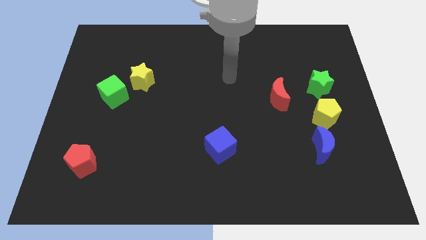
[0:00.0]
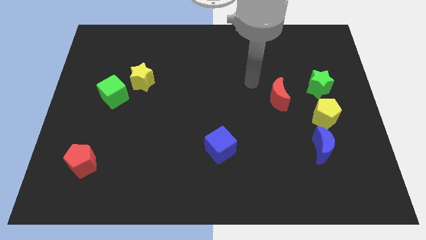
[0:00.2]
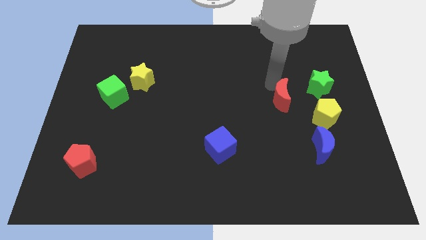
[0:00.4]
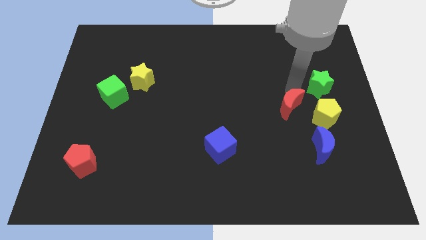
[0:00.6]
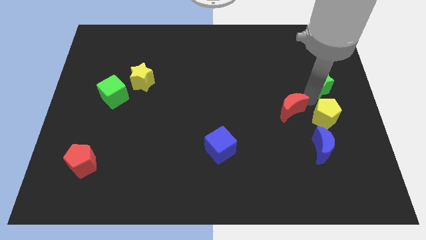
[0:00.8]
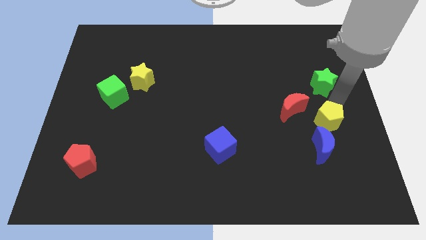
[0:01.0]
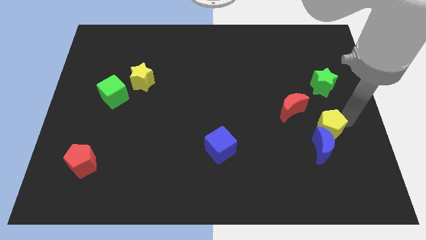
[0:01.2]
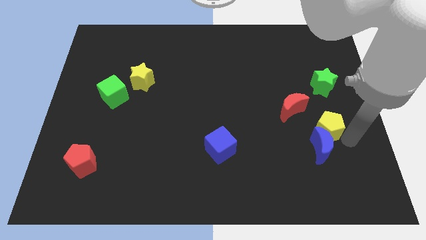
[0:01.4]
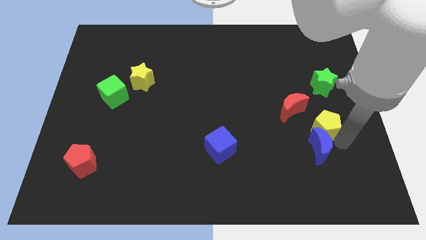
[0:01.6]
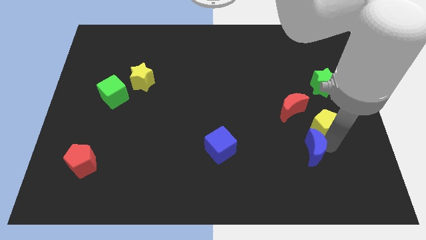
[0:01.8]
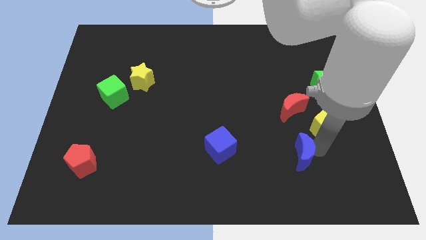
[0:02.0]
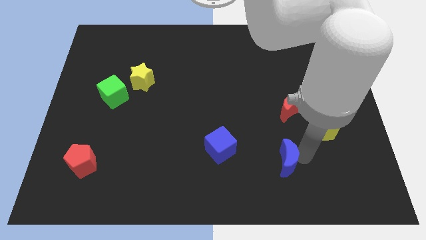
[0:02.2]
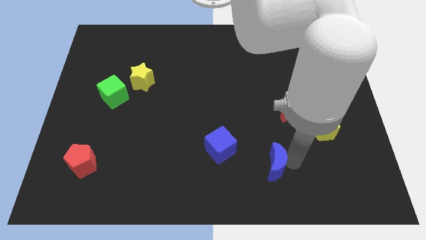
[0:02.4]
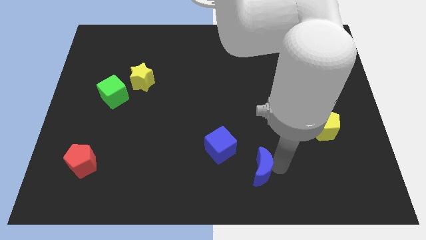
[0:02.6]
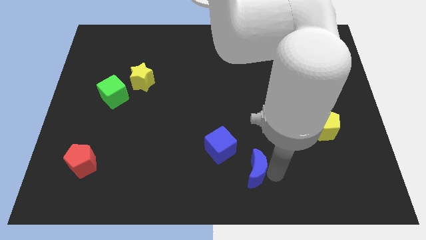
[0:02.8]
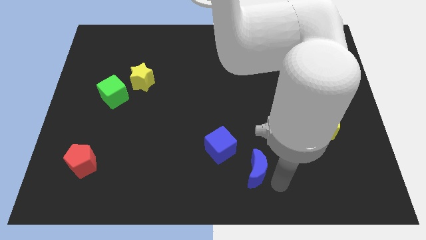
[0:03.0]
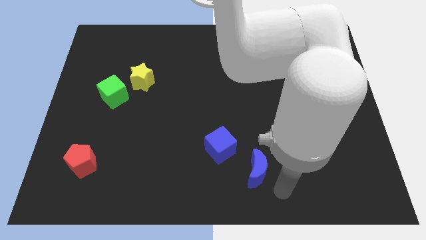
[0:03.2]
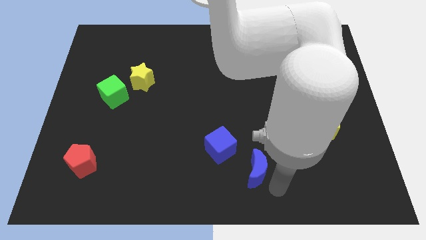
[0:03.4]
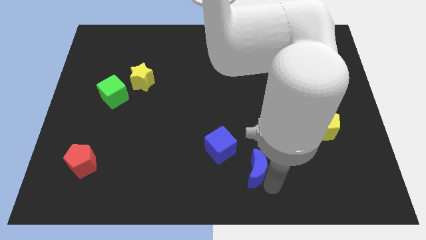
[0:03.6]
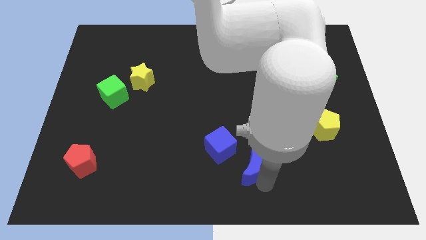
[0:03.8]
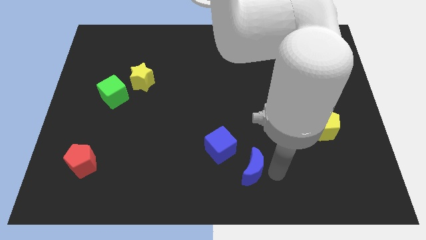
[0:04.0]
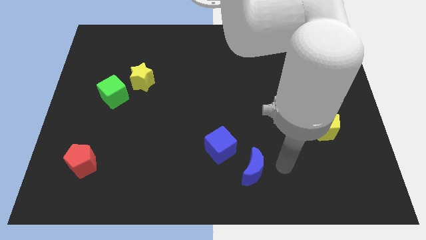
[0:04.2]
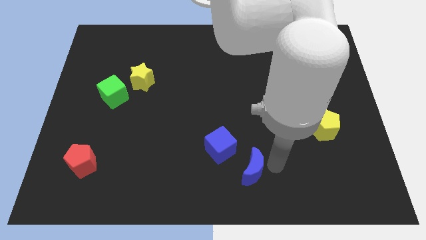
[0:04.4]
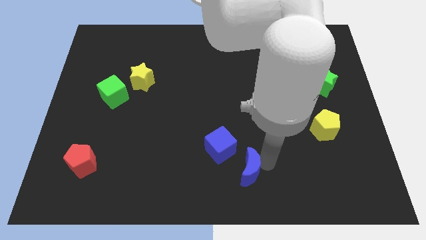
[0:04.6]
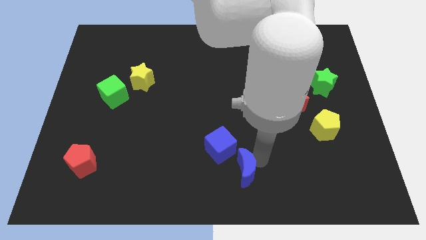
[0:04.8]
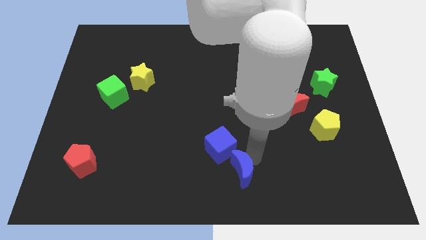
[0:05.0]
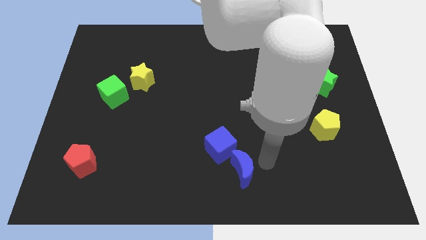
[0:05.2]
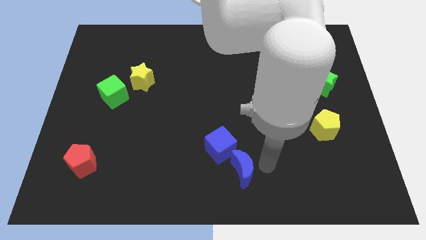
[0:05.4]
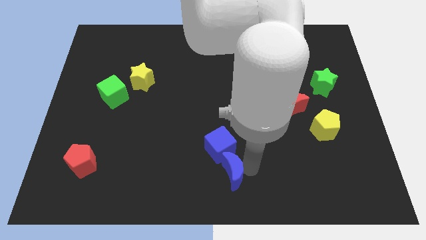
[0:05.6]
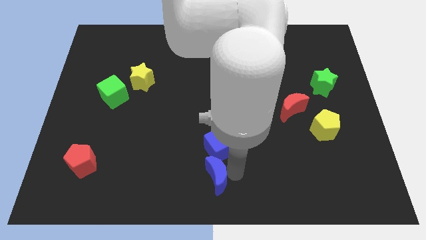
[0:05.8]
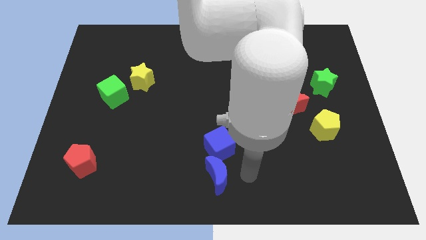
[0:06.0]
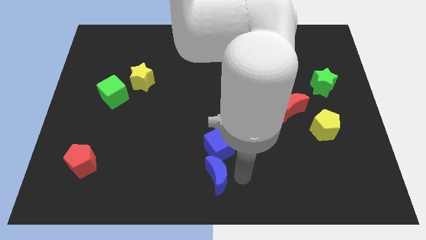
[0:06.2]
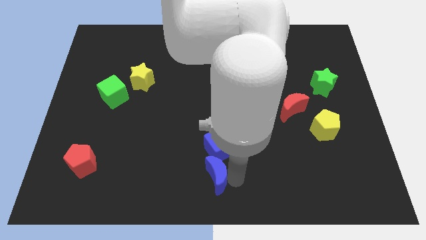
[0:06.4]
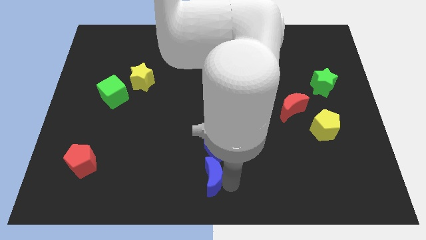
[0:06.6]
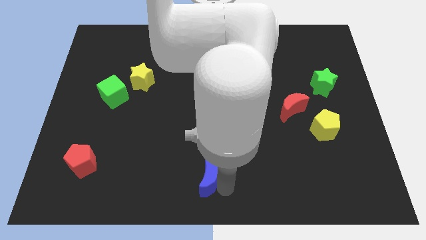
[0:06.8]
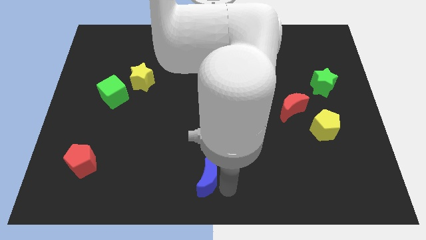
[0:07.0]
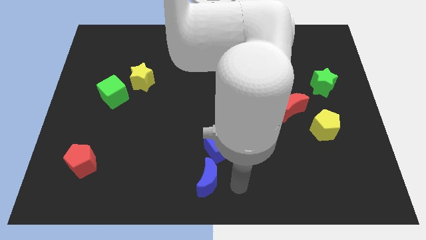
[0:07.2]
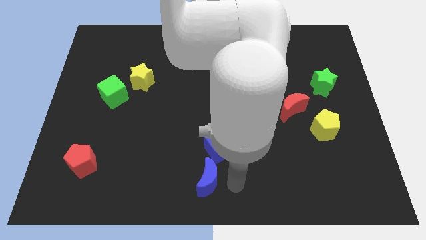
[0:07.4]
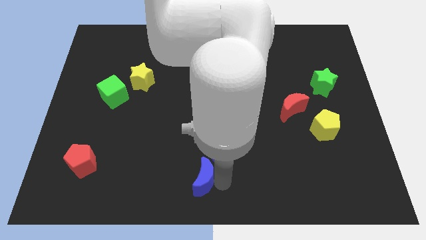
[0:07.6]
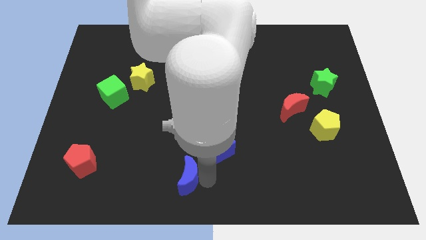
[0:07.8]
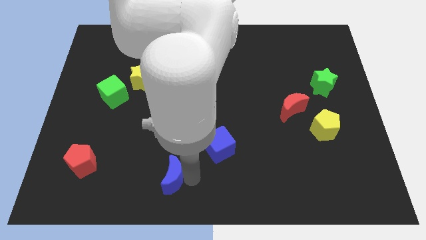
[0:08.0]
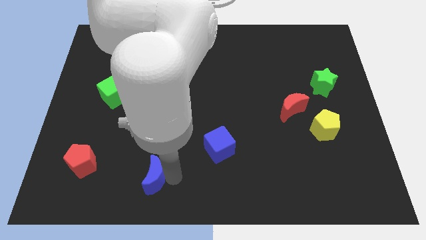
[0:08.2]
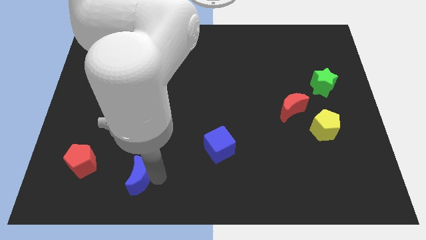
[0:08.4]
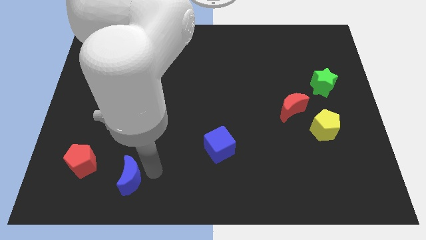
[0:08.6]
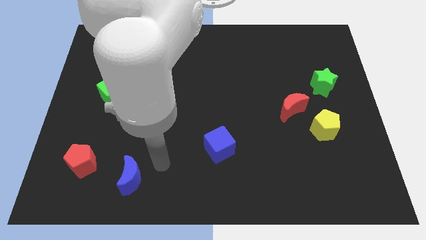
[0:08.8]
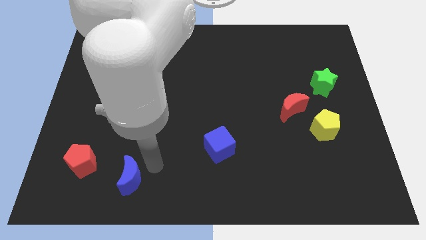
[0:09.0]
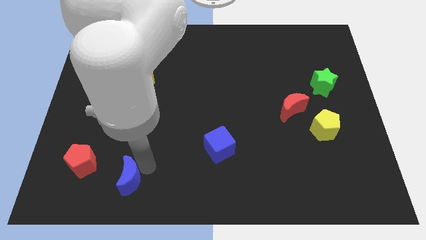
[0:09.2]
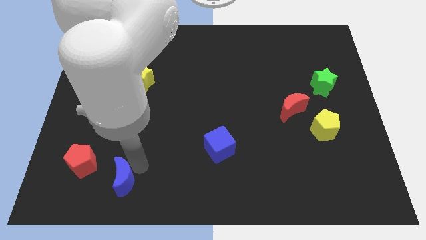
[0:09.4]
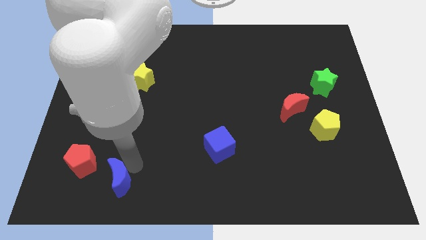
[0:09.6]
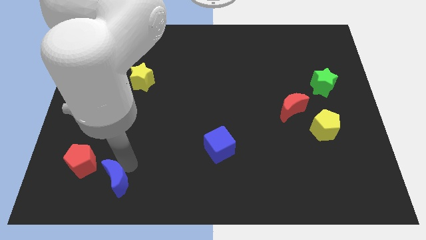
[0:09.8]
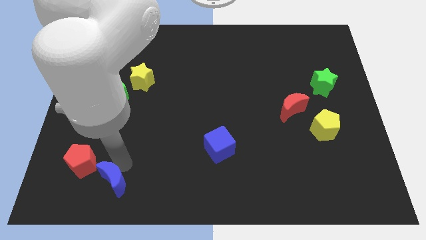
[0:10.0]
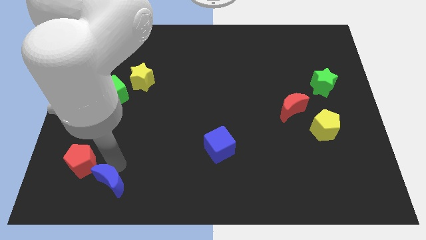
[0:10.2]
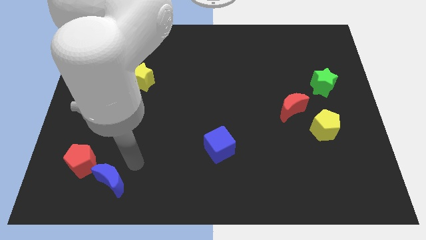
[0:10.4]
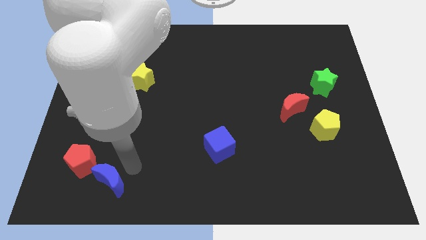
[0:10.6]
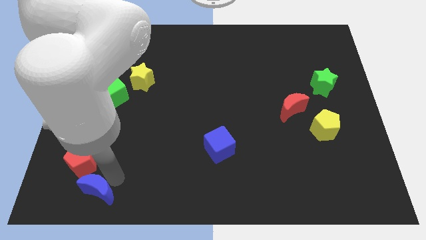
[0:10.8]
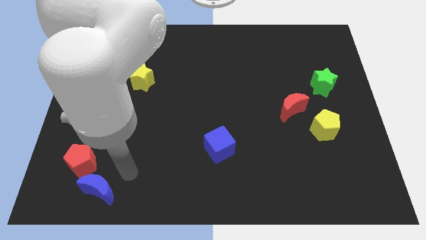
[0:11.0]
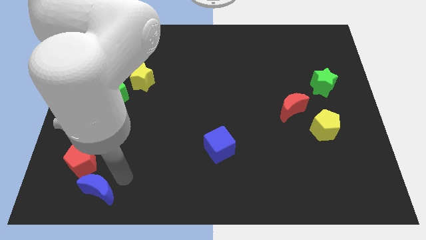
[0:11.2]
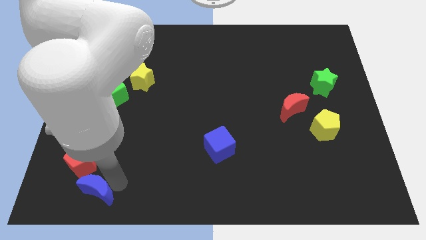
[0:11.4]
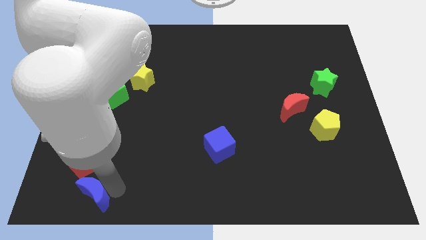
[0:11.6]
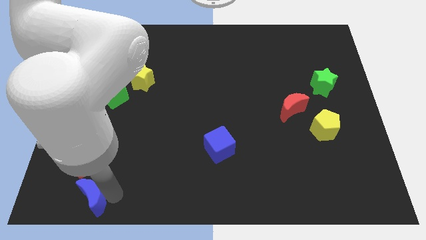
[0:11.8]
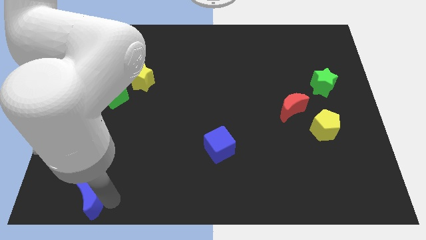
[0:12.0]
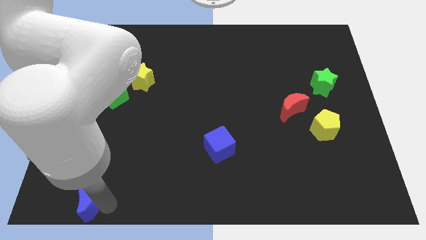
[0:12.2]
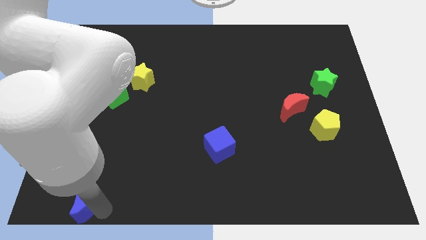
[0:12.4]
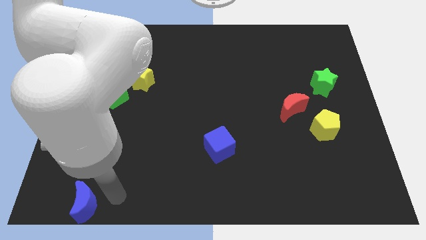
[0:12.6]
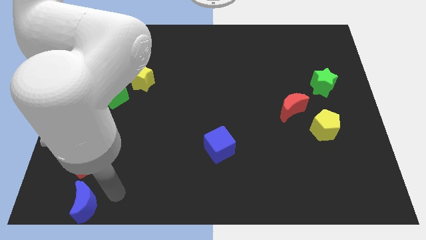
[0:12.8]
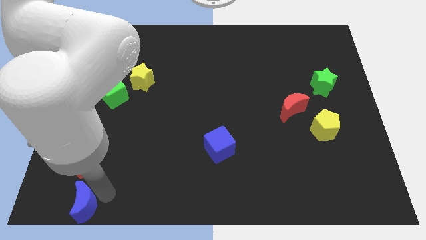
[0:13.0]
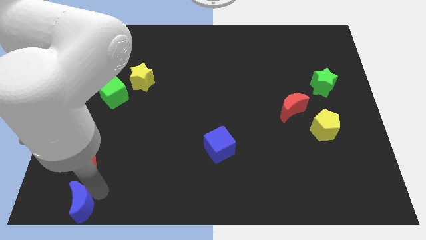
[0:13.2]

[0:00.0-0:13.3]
put the blue moon to the lower left corner

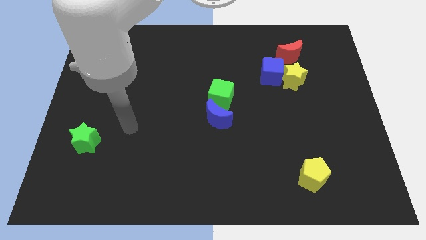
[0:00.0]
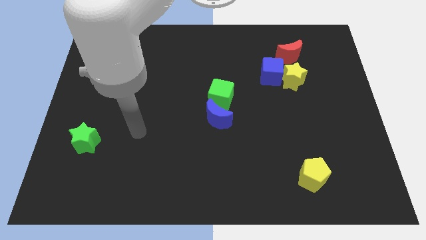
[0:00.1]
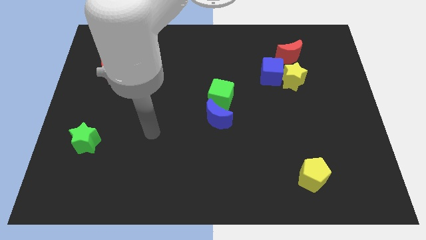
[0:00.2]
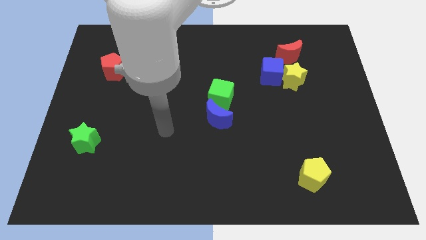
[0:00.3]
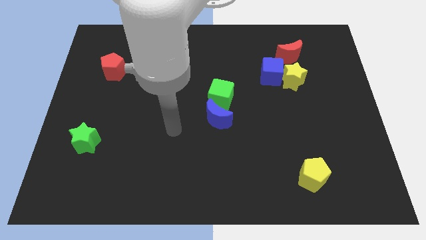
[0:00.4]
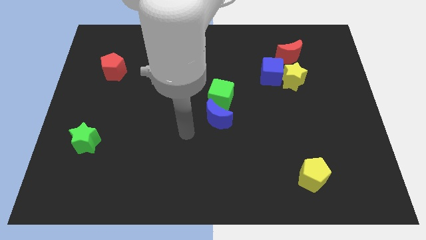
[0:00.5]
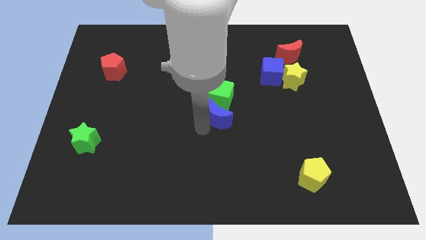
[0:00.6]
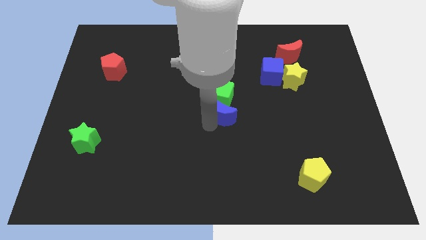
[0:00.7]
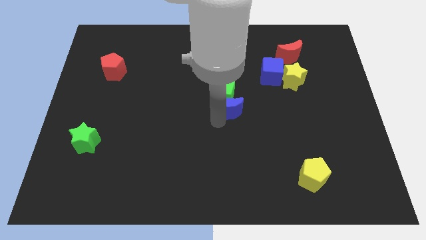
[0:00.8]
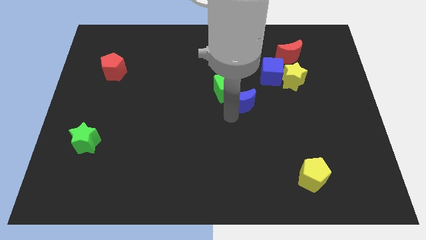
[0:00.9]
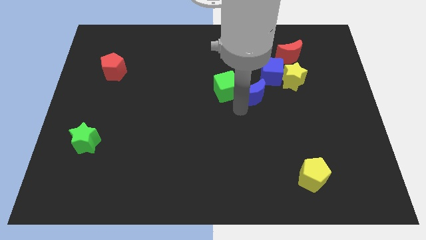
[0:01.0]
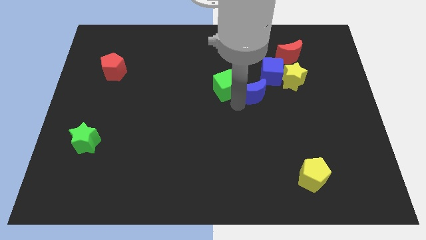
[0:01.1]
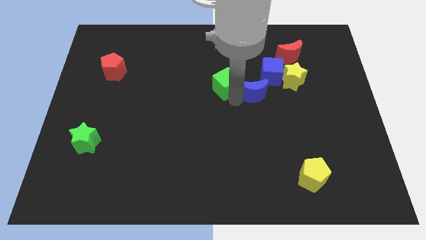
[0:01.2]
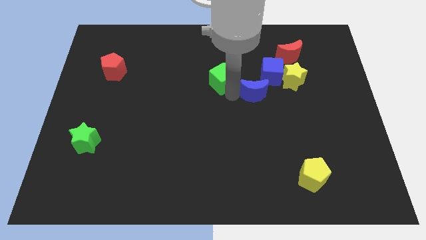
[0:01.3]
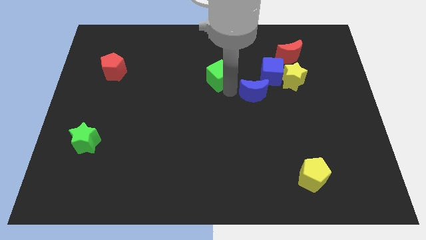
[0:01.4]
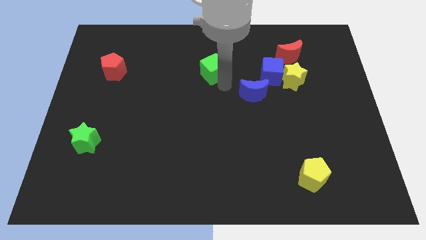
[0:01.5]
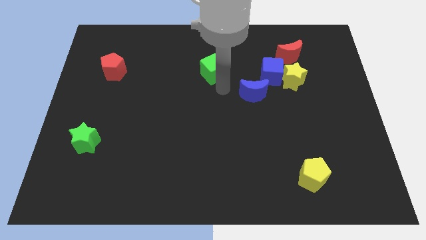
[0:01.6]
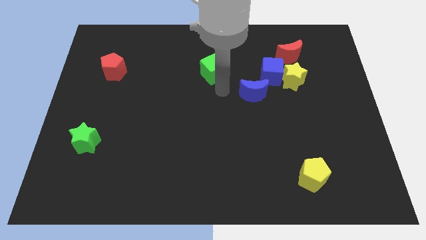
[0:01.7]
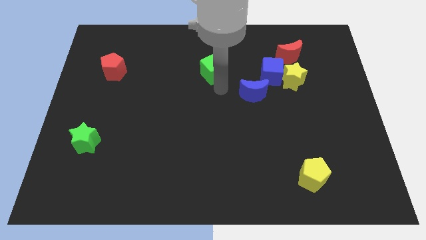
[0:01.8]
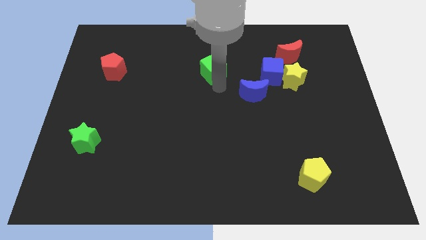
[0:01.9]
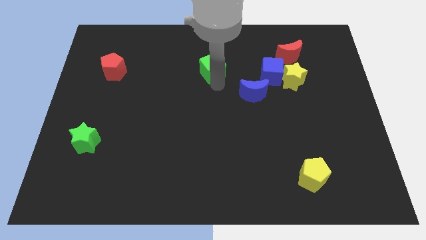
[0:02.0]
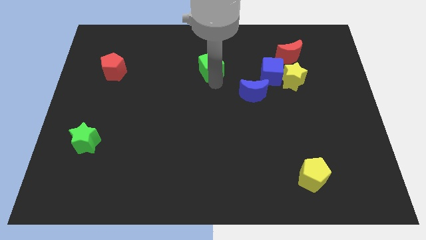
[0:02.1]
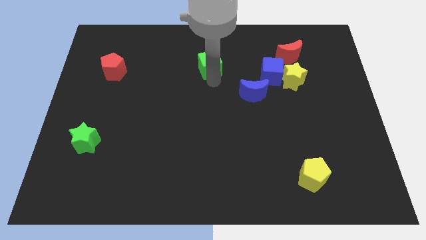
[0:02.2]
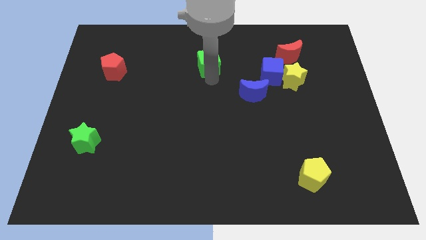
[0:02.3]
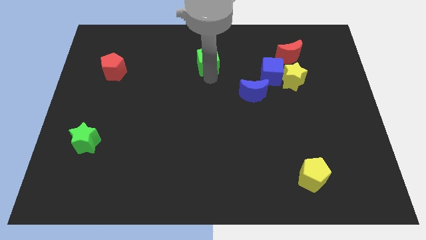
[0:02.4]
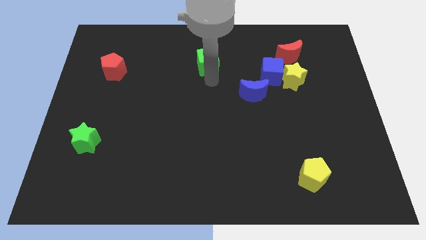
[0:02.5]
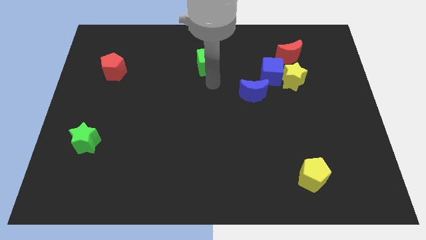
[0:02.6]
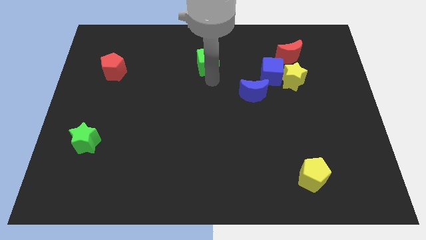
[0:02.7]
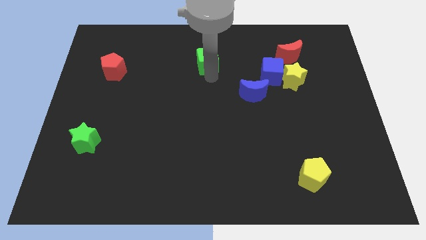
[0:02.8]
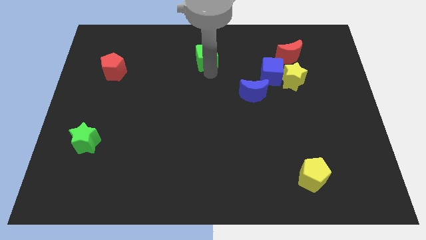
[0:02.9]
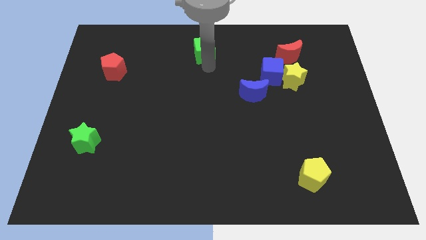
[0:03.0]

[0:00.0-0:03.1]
put the green cube to the top side
